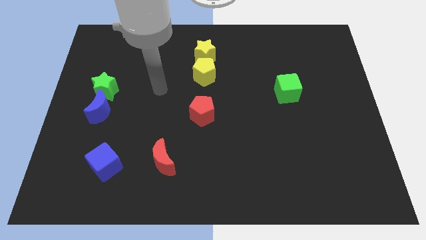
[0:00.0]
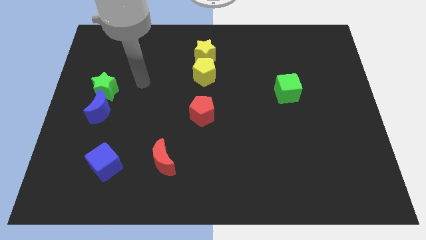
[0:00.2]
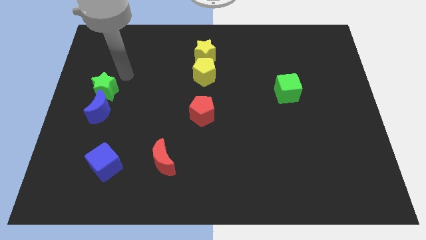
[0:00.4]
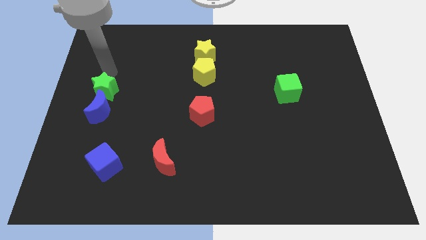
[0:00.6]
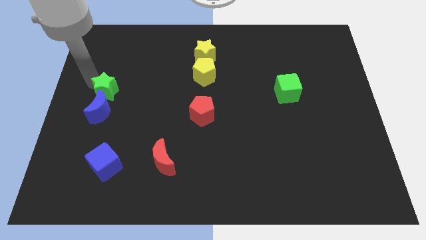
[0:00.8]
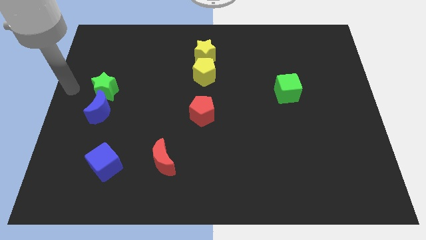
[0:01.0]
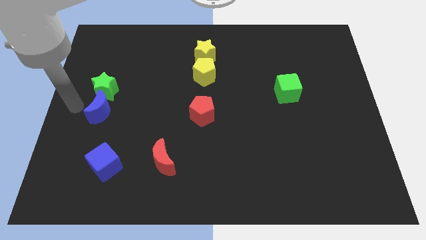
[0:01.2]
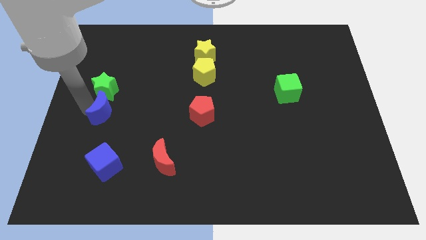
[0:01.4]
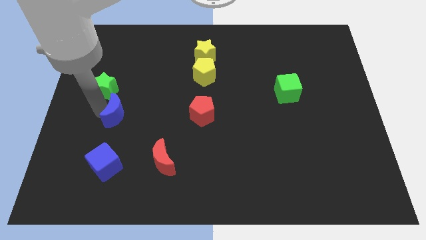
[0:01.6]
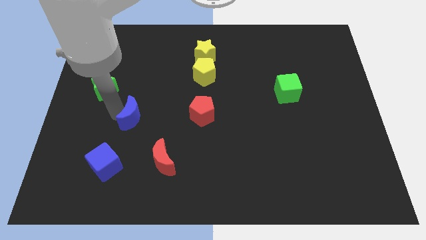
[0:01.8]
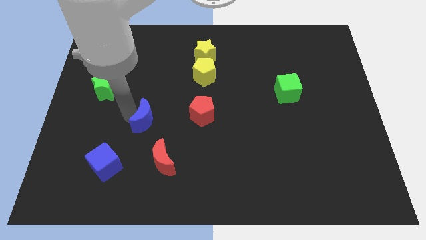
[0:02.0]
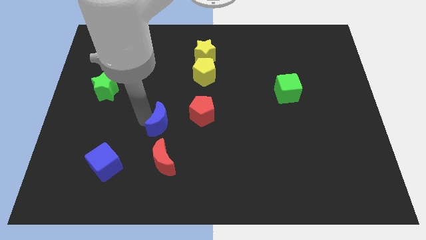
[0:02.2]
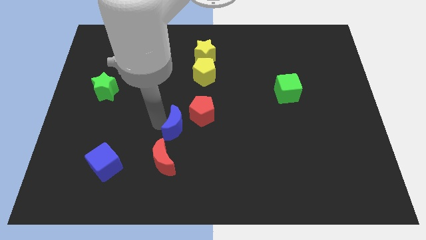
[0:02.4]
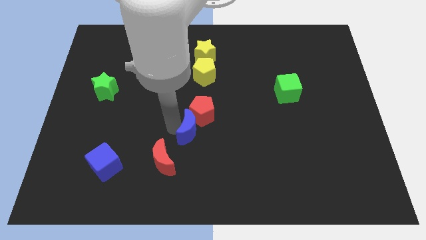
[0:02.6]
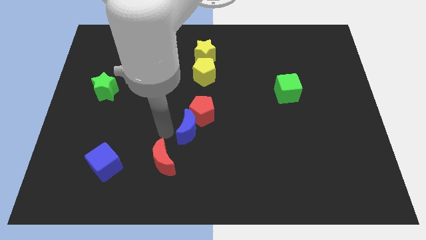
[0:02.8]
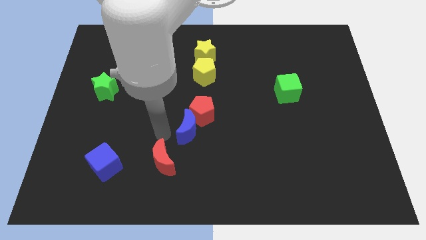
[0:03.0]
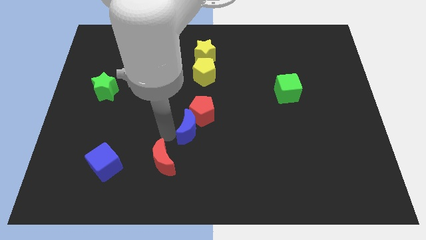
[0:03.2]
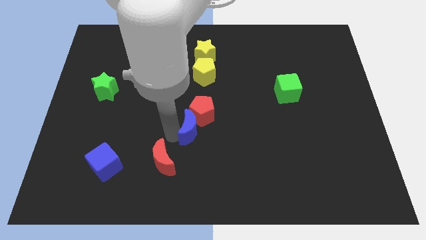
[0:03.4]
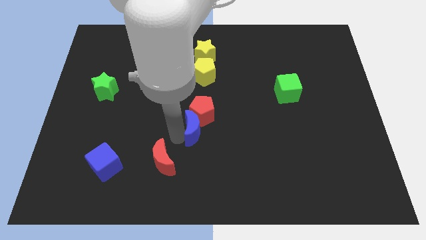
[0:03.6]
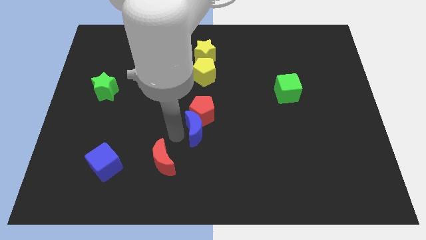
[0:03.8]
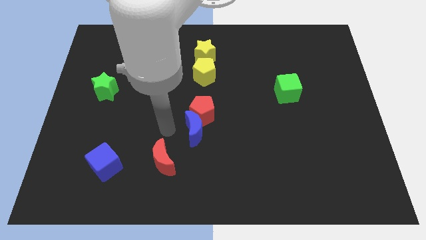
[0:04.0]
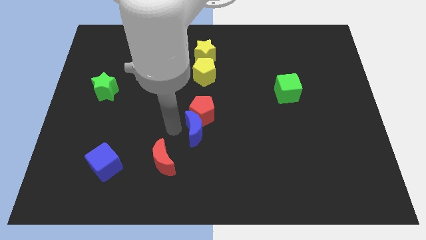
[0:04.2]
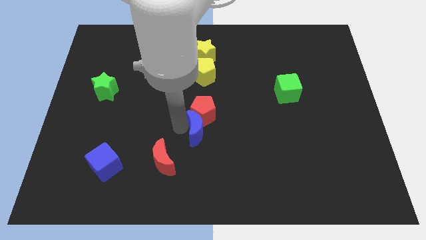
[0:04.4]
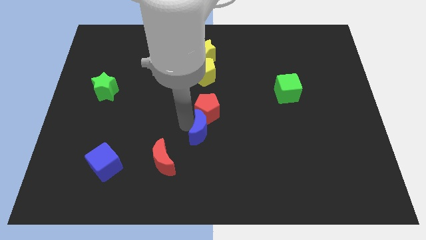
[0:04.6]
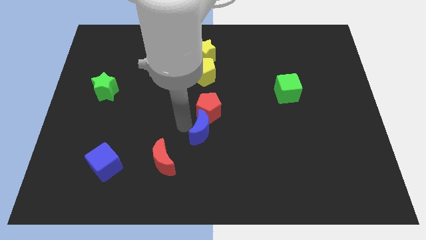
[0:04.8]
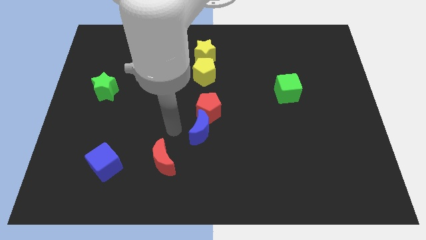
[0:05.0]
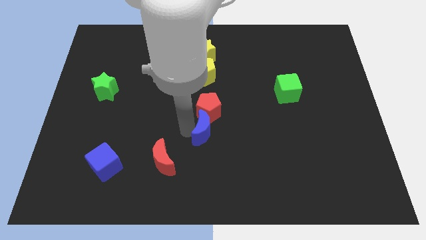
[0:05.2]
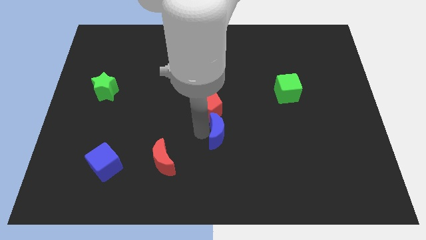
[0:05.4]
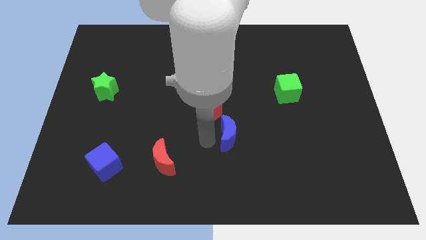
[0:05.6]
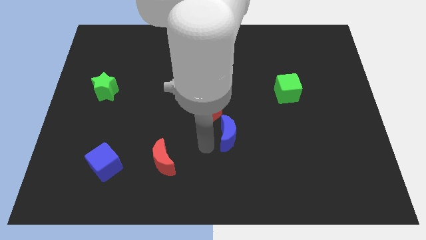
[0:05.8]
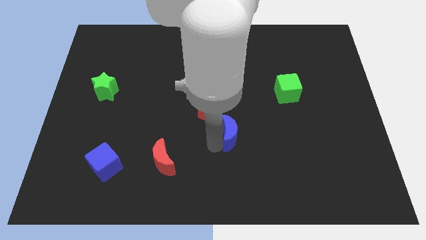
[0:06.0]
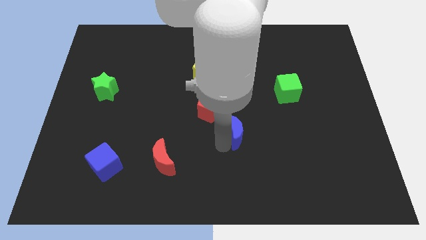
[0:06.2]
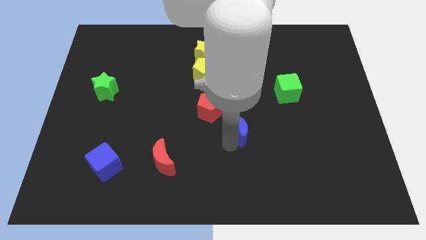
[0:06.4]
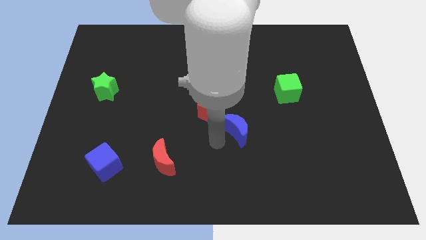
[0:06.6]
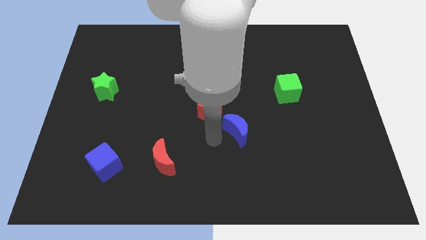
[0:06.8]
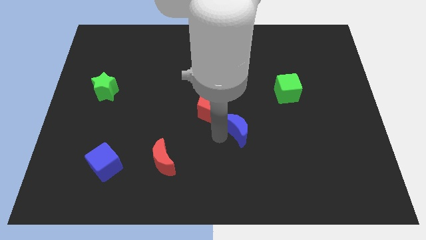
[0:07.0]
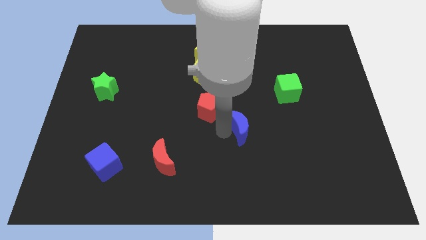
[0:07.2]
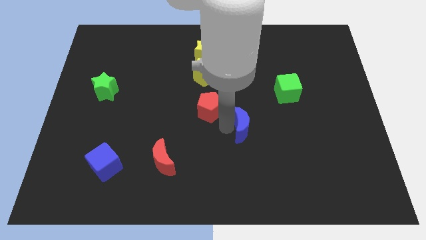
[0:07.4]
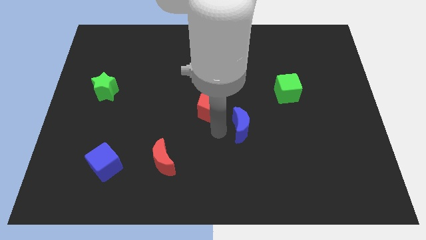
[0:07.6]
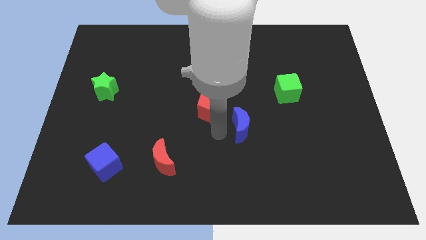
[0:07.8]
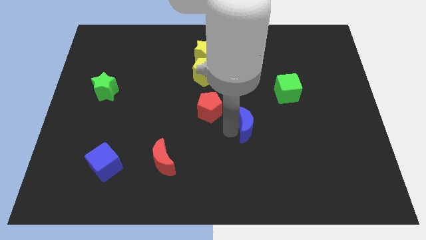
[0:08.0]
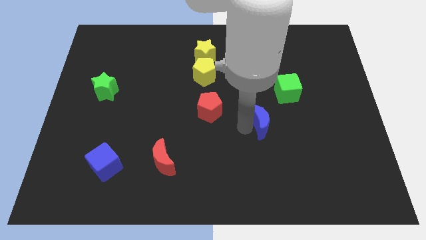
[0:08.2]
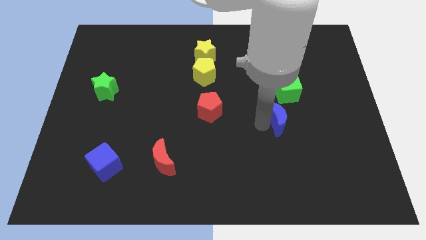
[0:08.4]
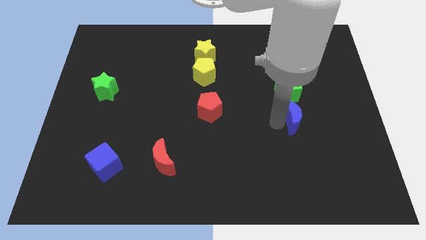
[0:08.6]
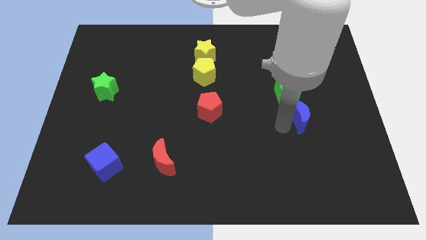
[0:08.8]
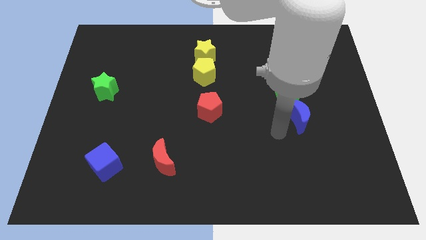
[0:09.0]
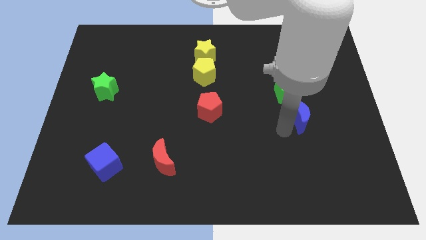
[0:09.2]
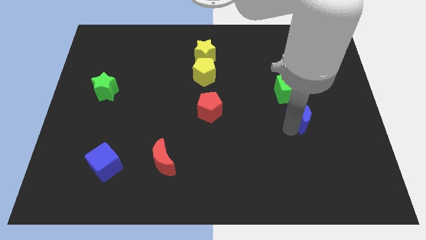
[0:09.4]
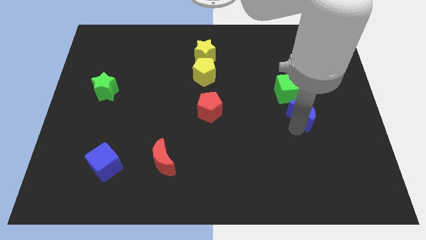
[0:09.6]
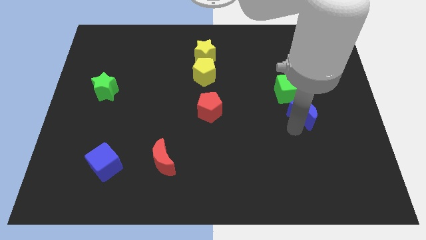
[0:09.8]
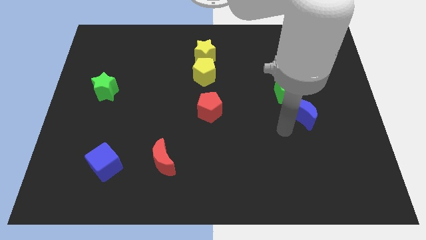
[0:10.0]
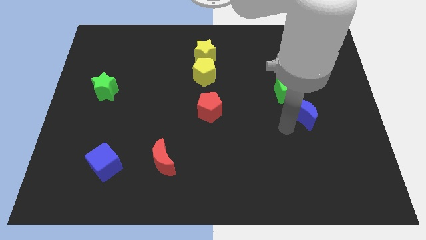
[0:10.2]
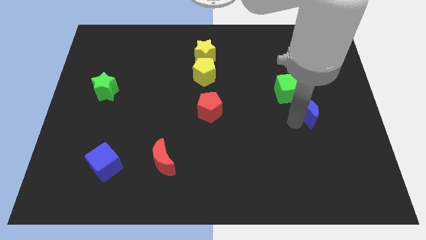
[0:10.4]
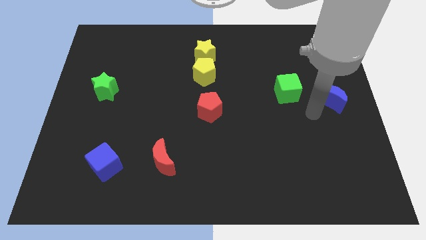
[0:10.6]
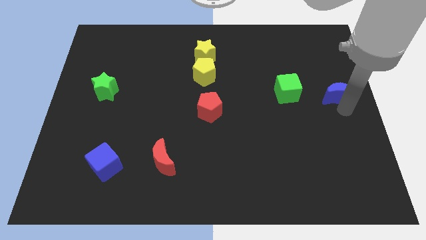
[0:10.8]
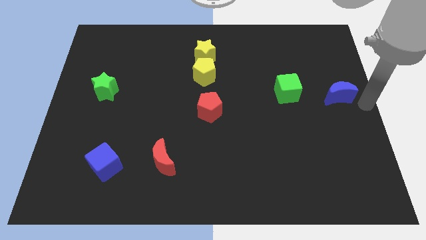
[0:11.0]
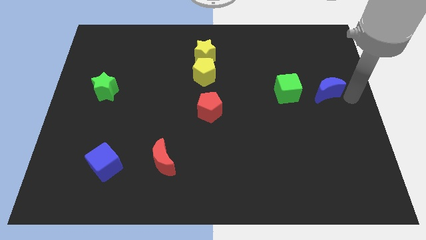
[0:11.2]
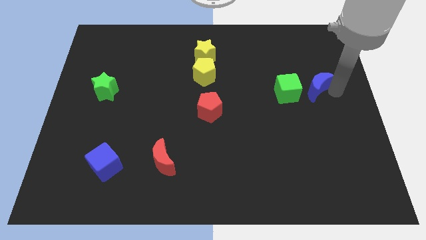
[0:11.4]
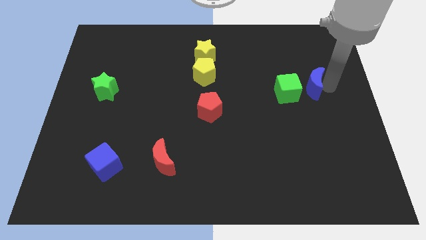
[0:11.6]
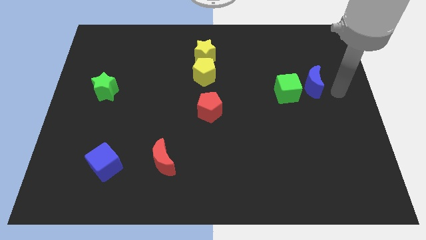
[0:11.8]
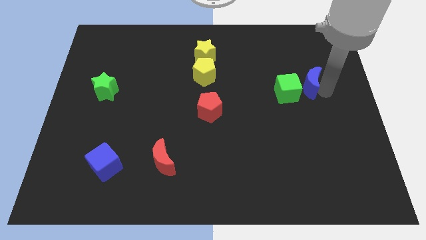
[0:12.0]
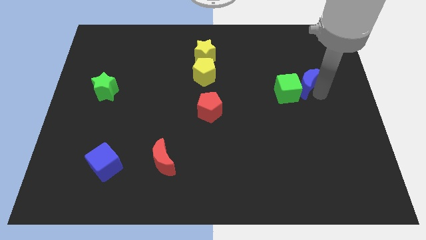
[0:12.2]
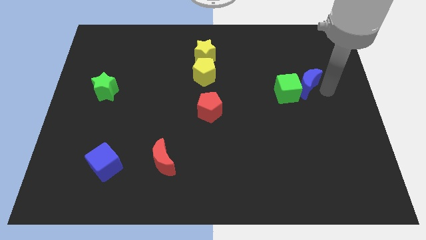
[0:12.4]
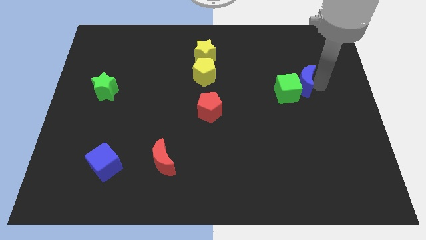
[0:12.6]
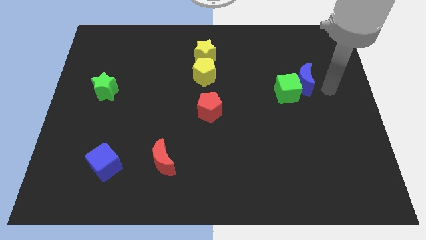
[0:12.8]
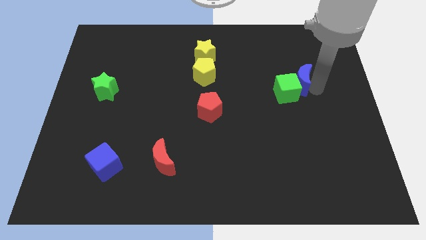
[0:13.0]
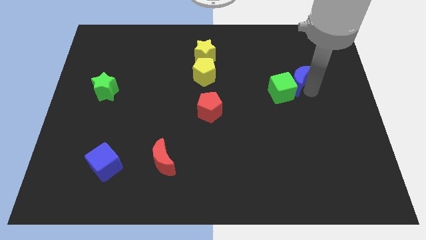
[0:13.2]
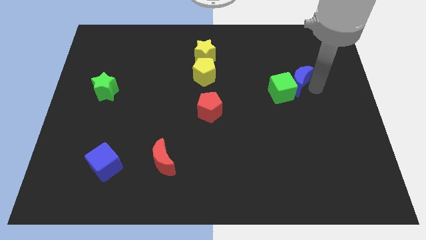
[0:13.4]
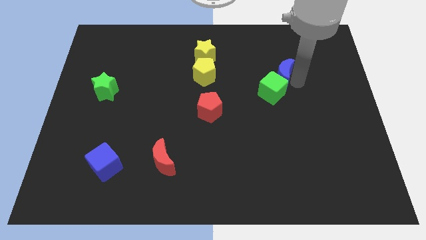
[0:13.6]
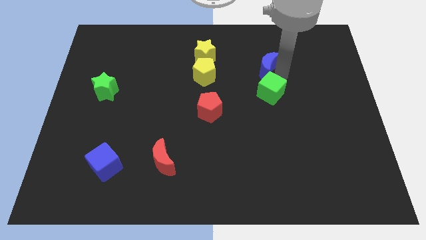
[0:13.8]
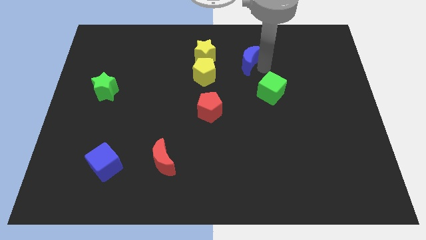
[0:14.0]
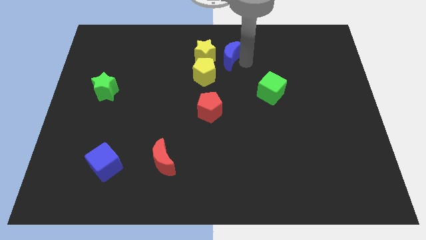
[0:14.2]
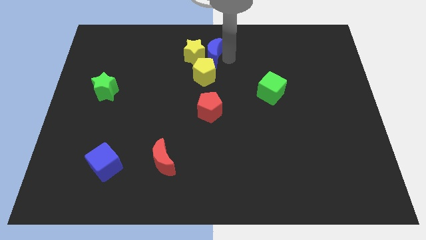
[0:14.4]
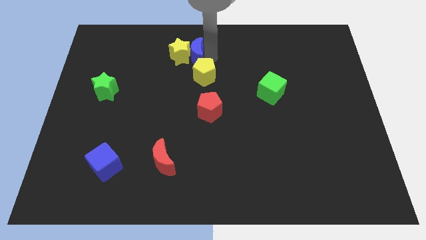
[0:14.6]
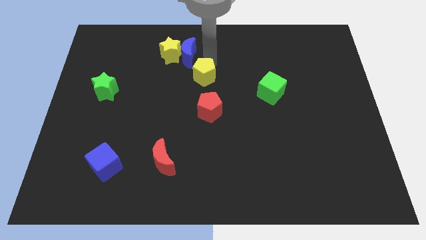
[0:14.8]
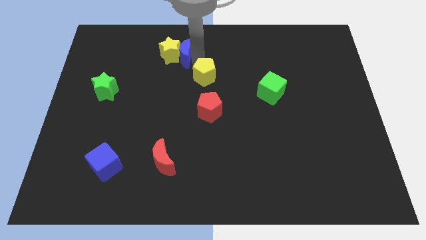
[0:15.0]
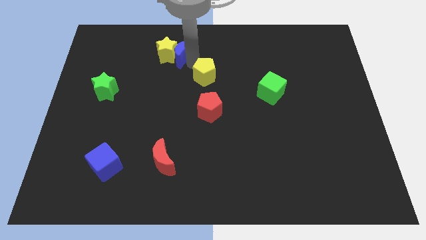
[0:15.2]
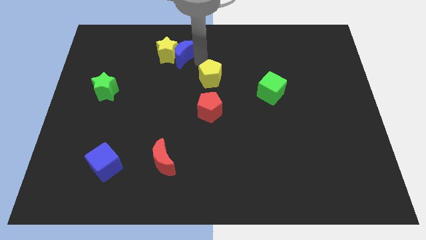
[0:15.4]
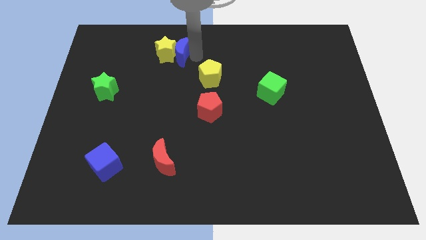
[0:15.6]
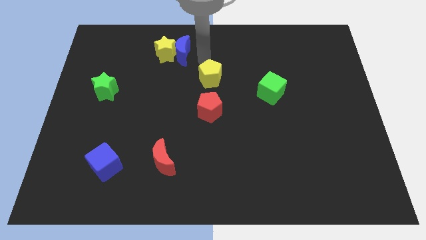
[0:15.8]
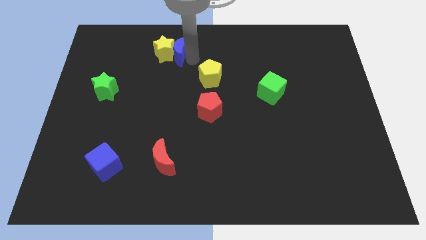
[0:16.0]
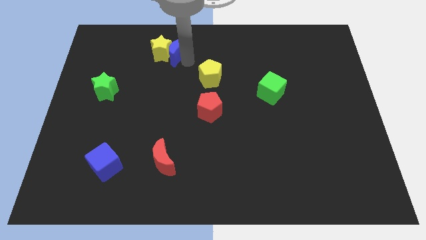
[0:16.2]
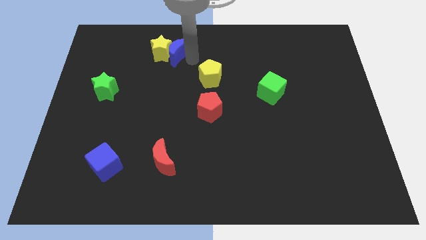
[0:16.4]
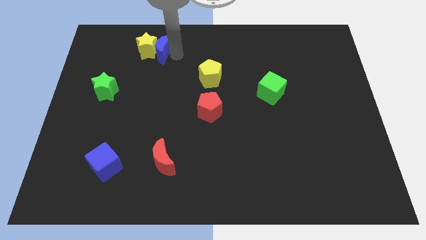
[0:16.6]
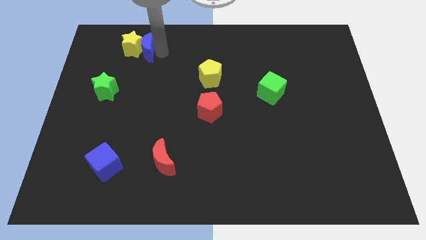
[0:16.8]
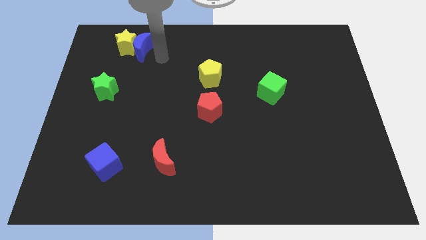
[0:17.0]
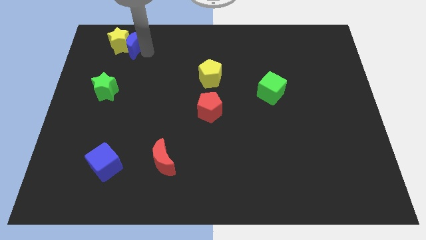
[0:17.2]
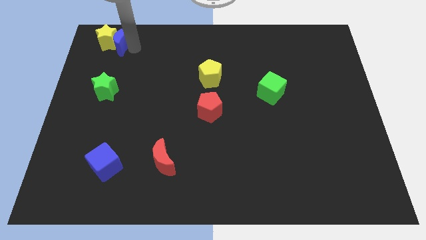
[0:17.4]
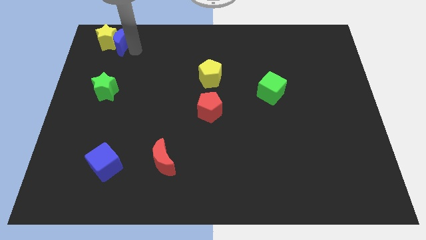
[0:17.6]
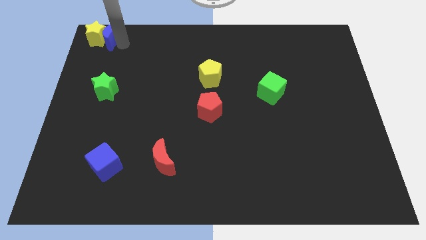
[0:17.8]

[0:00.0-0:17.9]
put the blue moon to the upper left corner
